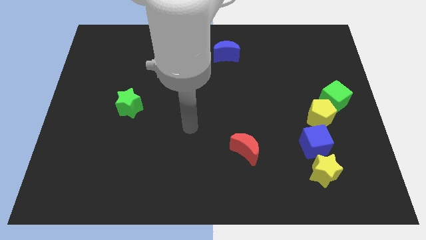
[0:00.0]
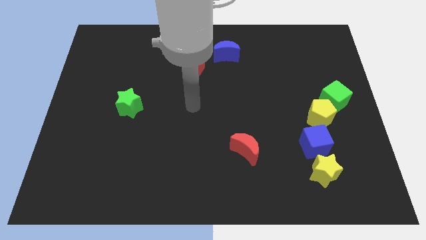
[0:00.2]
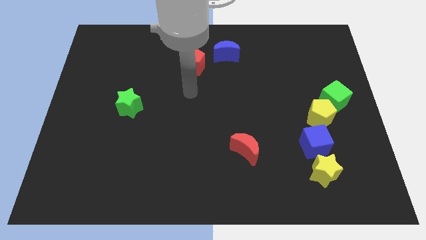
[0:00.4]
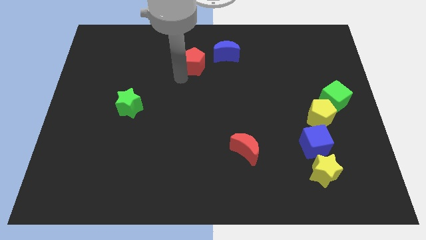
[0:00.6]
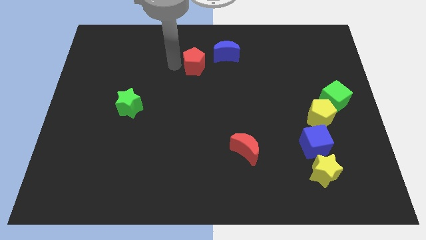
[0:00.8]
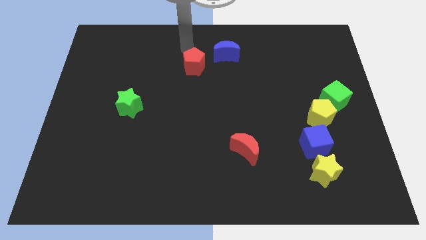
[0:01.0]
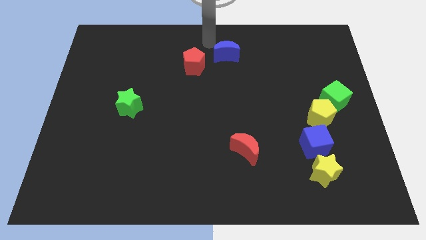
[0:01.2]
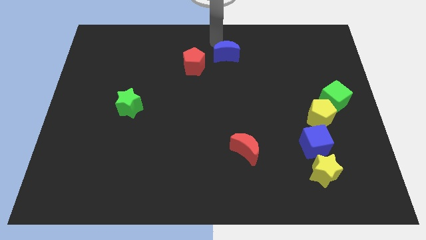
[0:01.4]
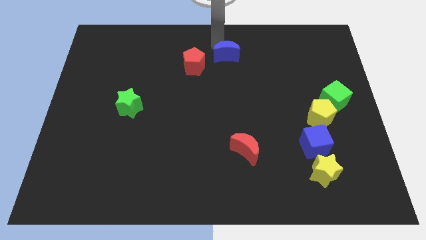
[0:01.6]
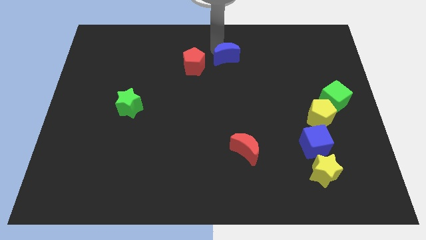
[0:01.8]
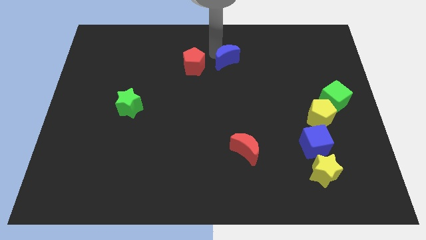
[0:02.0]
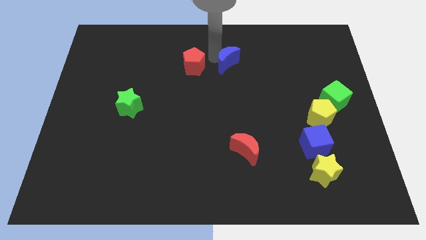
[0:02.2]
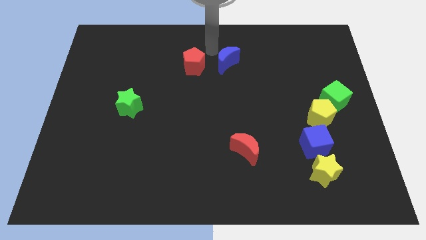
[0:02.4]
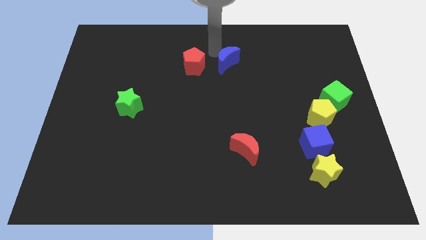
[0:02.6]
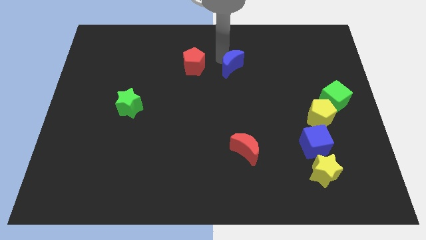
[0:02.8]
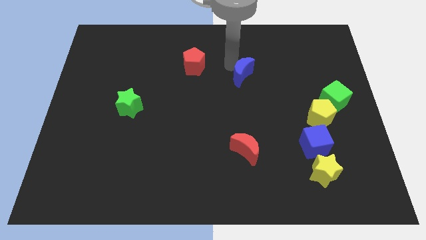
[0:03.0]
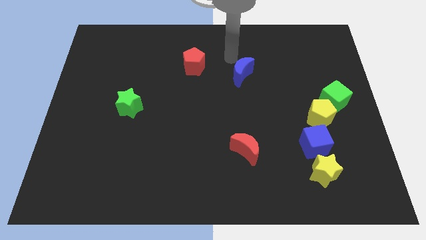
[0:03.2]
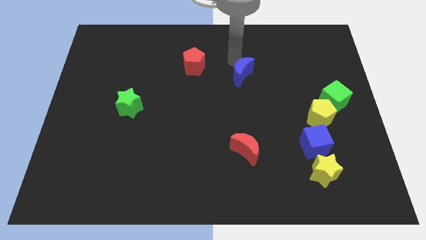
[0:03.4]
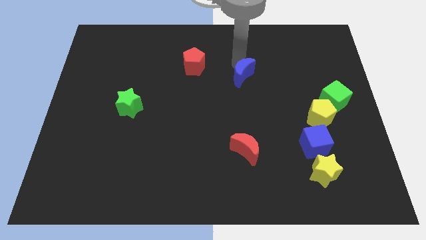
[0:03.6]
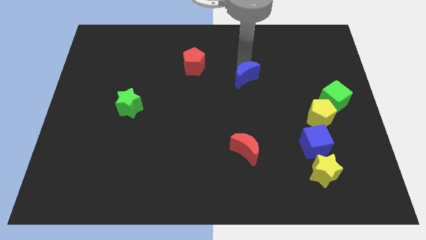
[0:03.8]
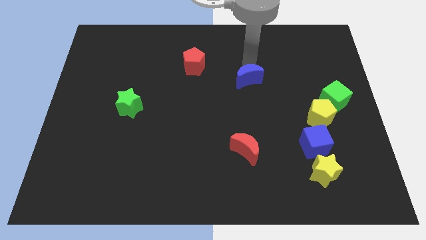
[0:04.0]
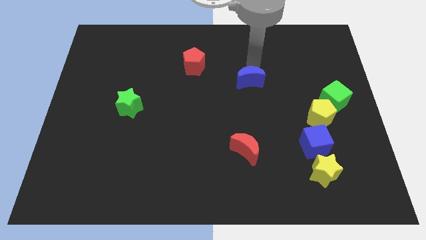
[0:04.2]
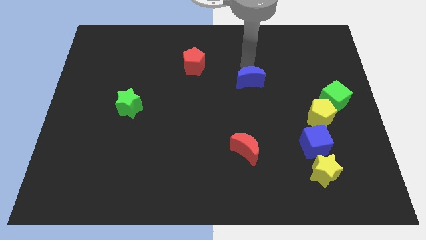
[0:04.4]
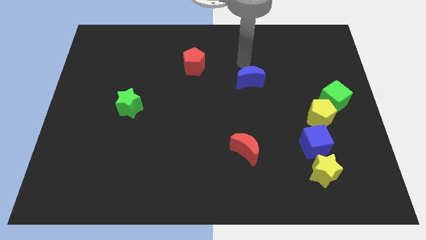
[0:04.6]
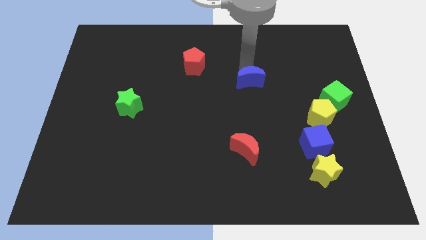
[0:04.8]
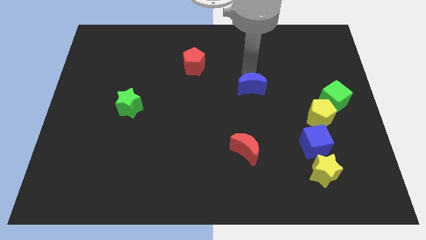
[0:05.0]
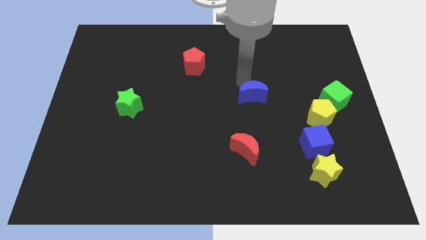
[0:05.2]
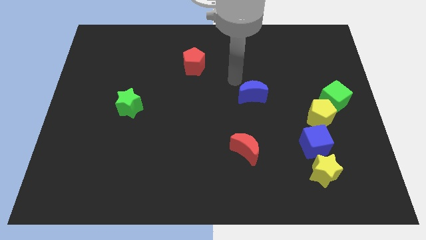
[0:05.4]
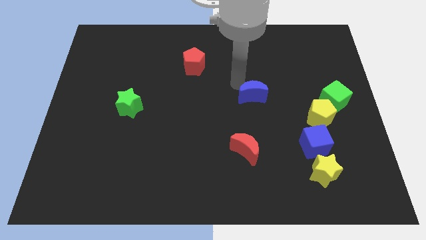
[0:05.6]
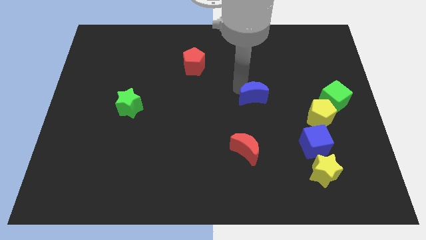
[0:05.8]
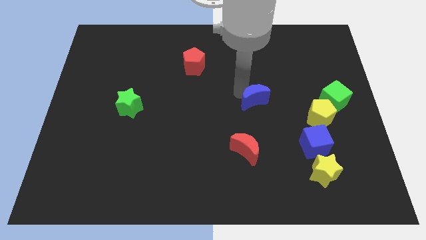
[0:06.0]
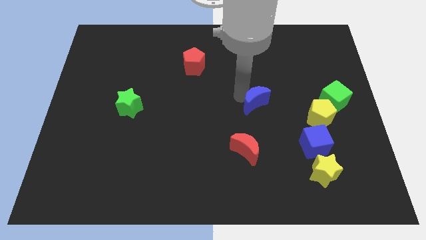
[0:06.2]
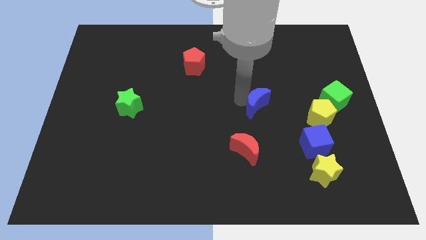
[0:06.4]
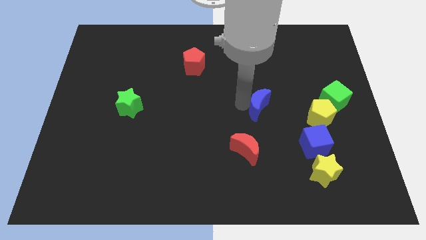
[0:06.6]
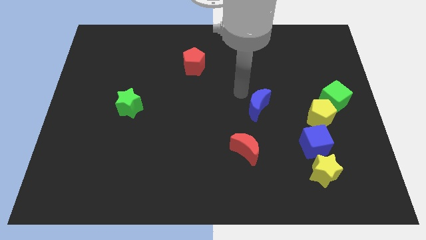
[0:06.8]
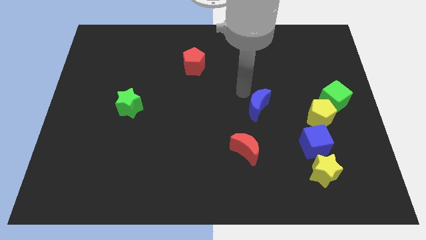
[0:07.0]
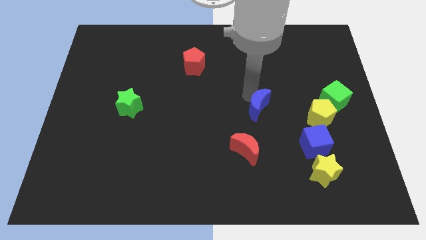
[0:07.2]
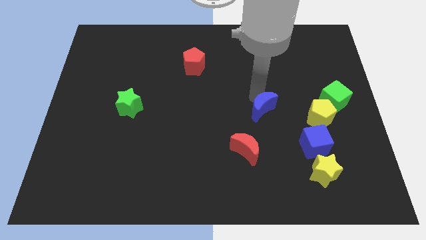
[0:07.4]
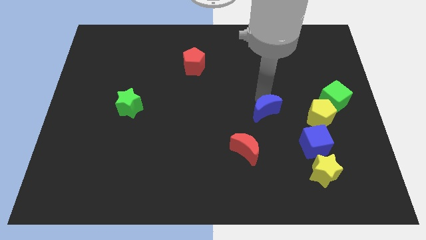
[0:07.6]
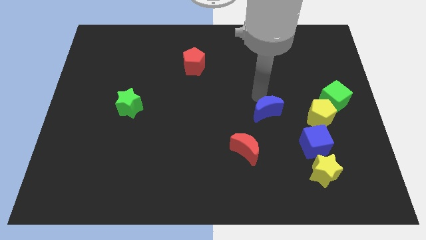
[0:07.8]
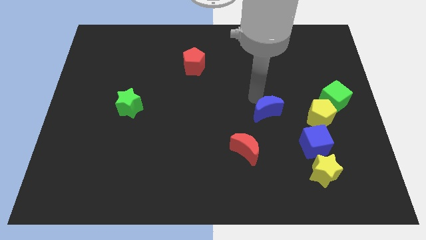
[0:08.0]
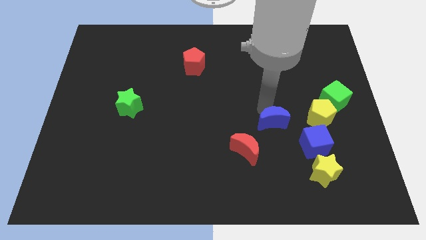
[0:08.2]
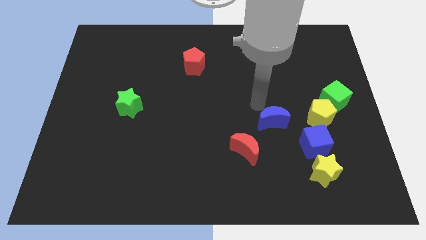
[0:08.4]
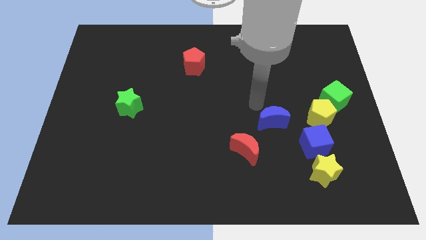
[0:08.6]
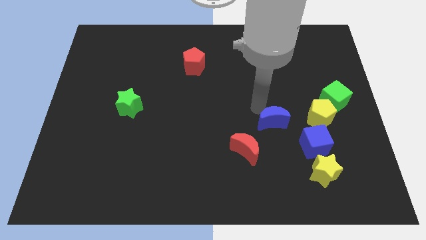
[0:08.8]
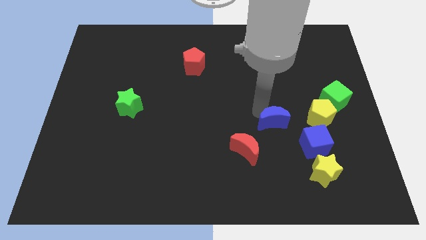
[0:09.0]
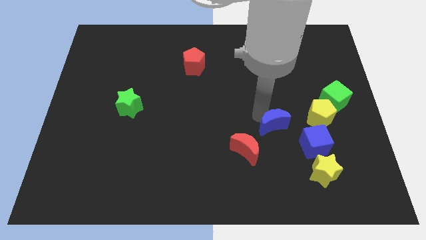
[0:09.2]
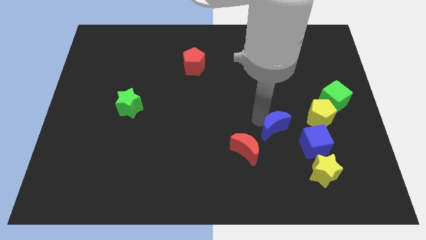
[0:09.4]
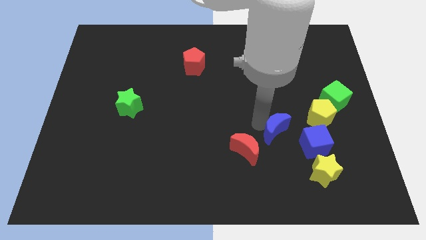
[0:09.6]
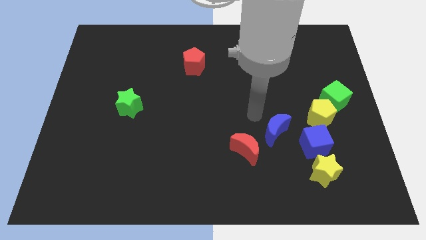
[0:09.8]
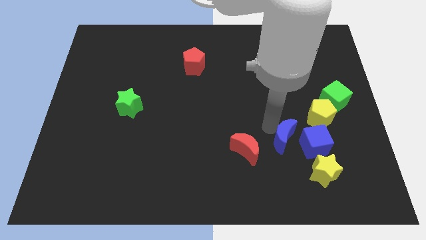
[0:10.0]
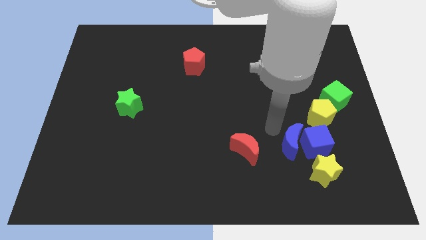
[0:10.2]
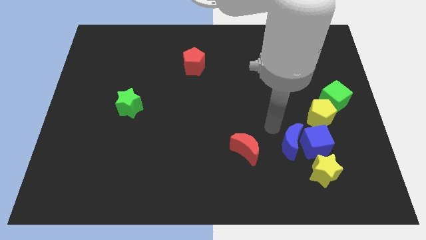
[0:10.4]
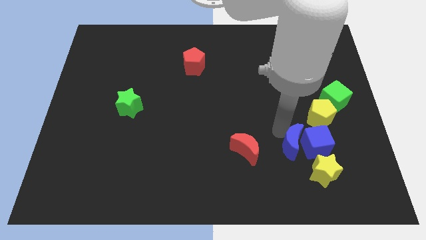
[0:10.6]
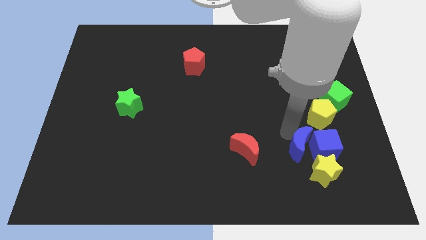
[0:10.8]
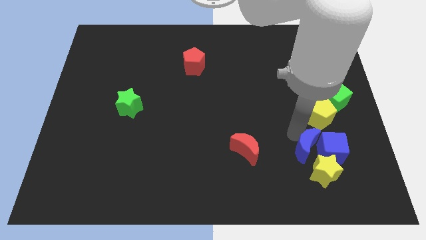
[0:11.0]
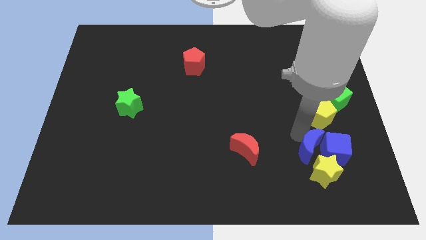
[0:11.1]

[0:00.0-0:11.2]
slide the blue moon towards the yellow star

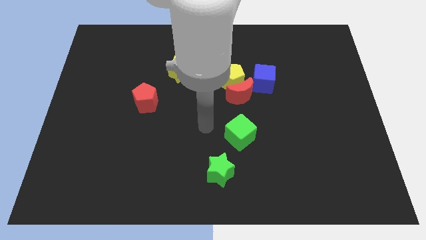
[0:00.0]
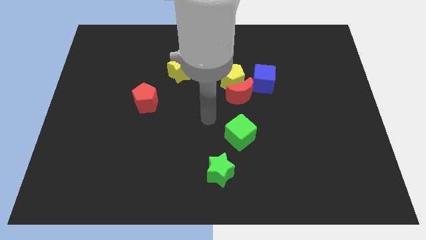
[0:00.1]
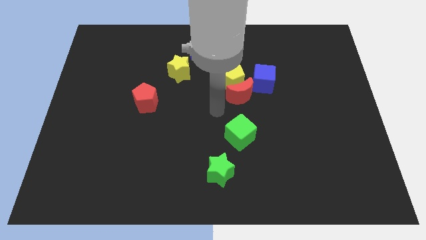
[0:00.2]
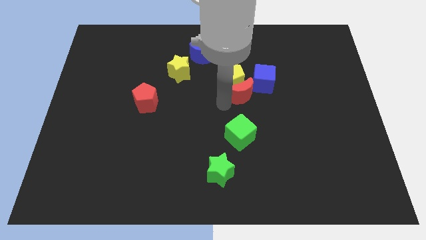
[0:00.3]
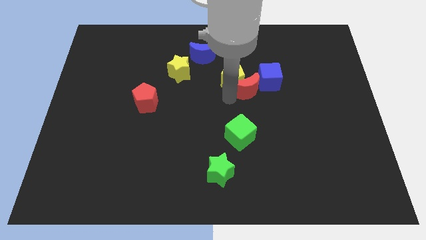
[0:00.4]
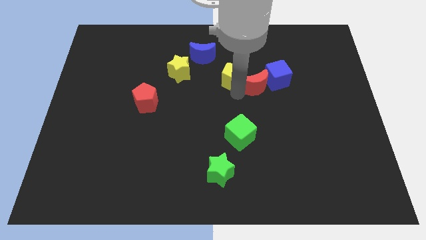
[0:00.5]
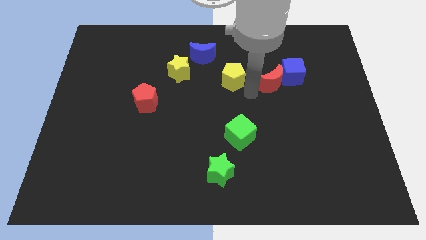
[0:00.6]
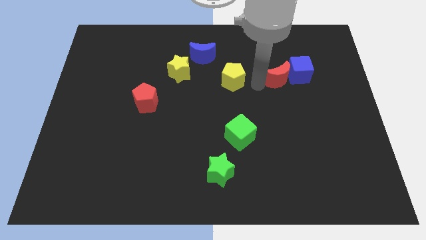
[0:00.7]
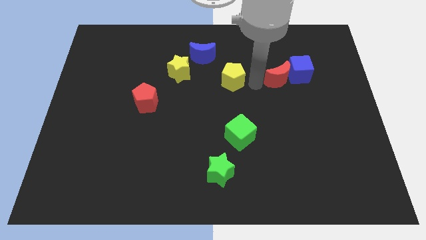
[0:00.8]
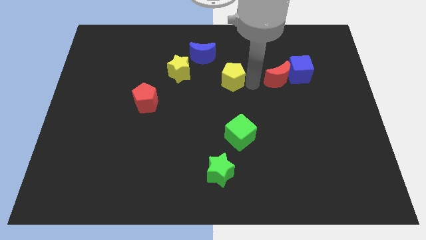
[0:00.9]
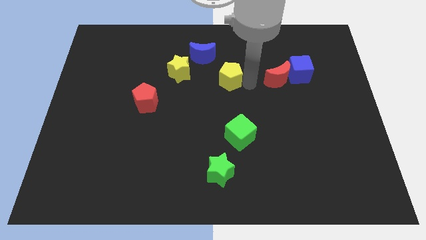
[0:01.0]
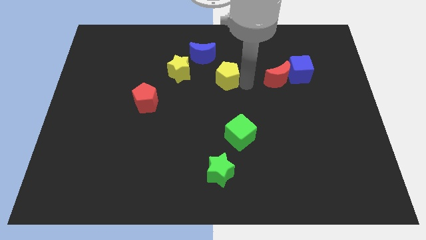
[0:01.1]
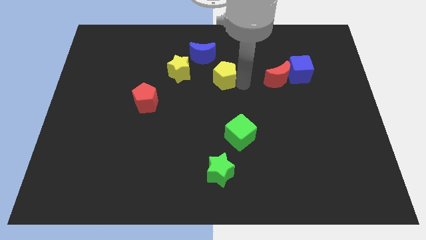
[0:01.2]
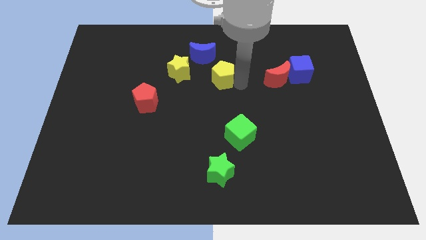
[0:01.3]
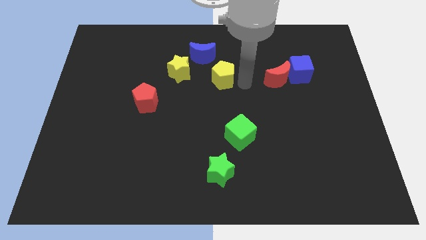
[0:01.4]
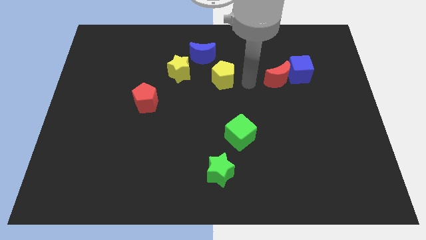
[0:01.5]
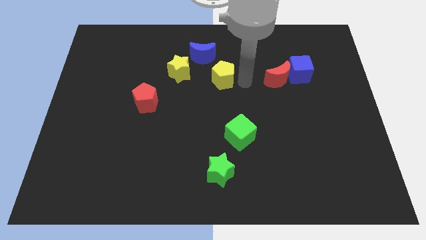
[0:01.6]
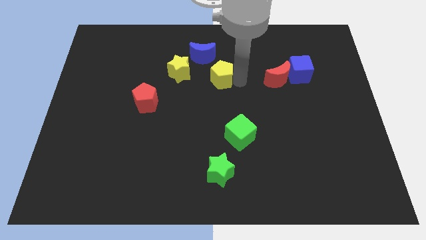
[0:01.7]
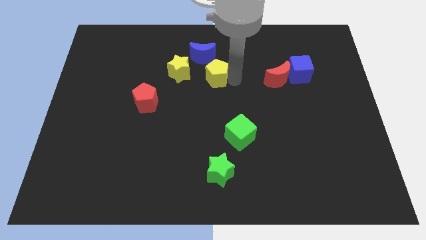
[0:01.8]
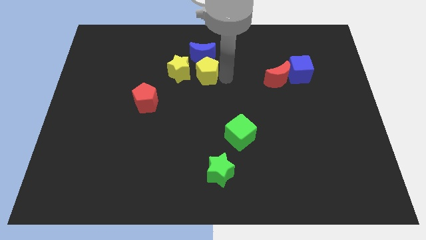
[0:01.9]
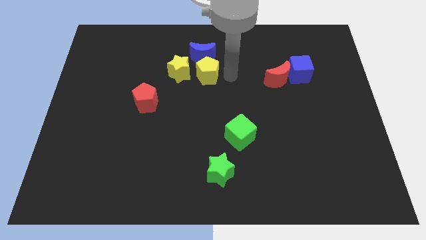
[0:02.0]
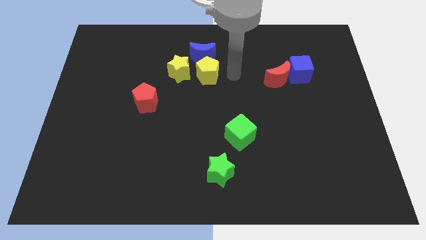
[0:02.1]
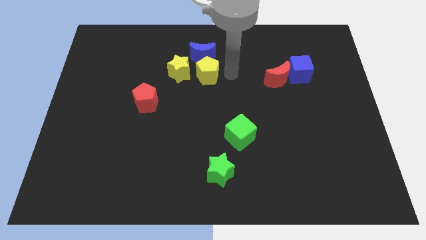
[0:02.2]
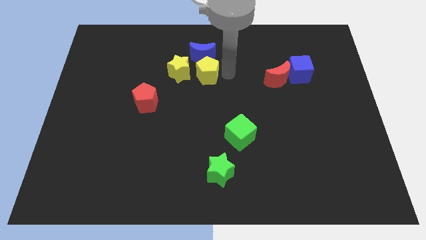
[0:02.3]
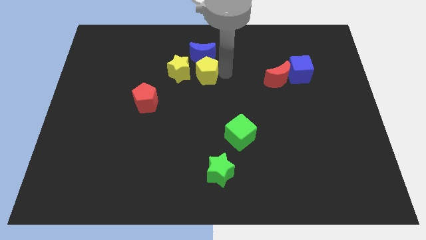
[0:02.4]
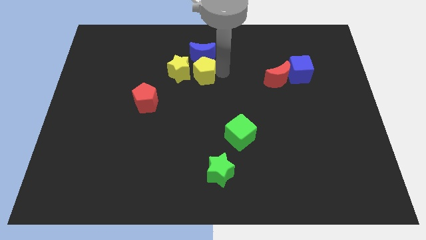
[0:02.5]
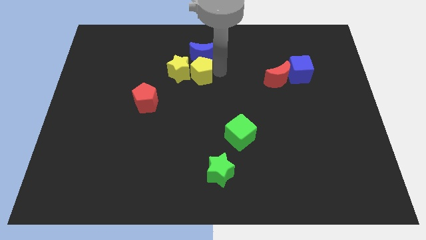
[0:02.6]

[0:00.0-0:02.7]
put the yellow pentagon towards the yellow star
